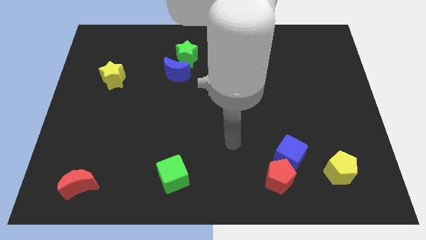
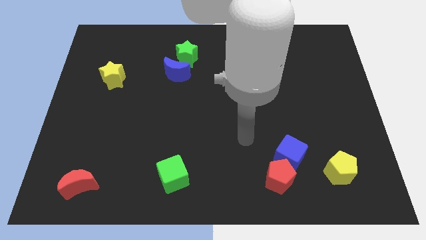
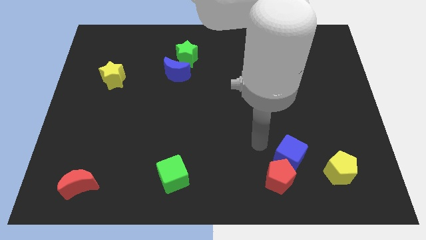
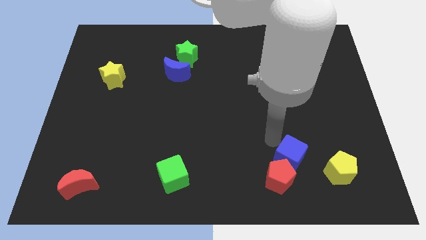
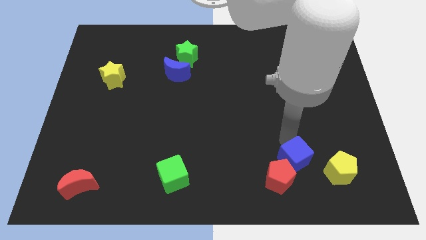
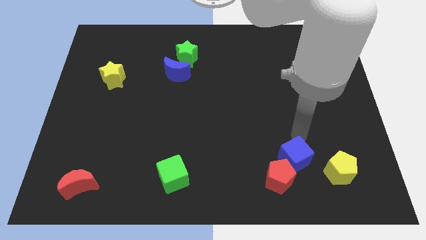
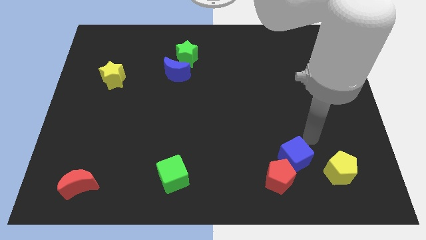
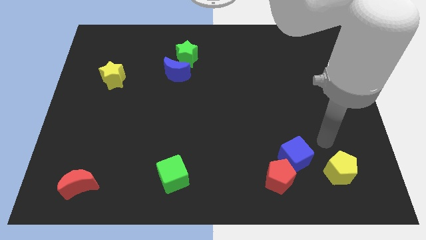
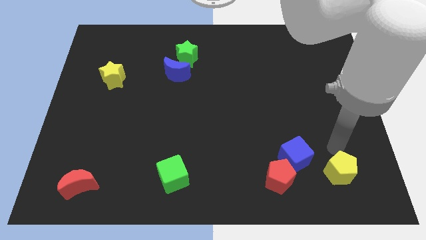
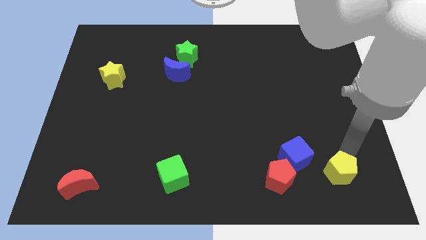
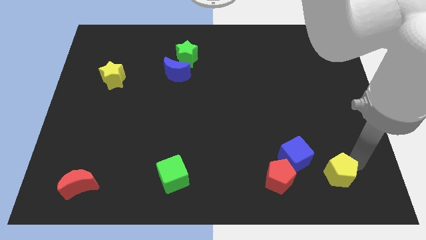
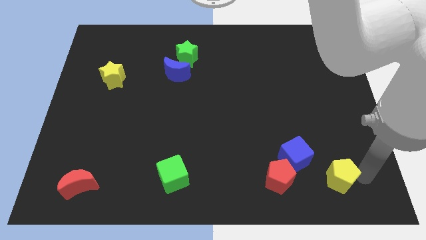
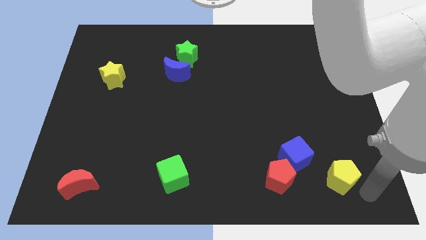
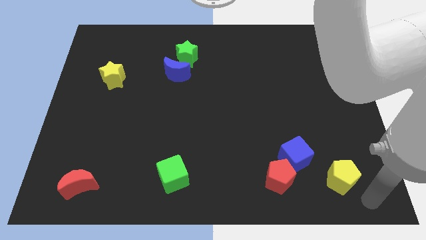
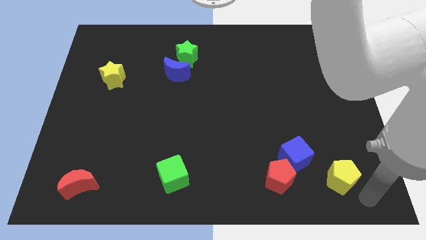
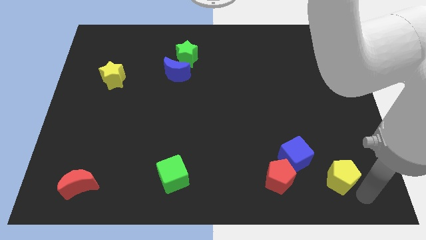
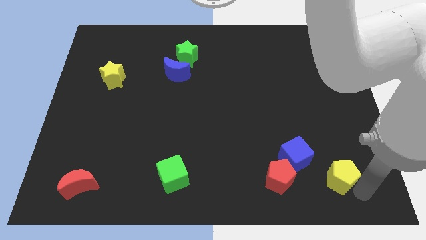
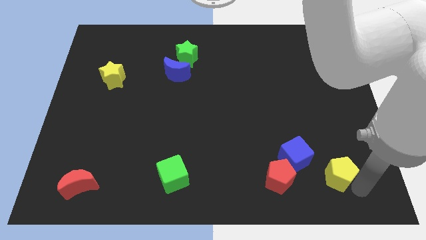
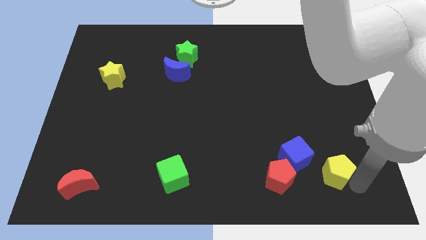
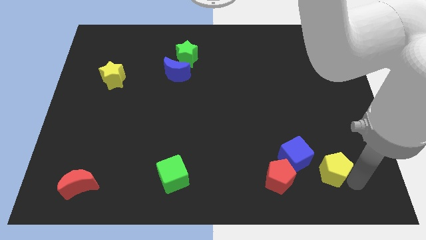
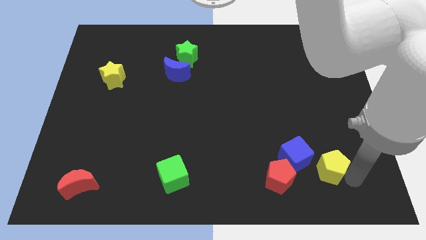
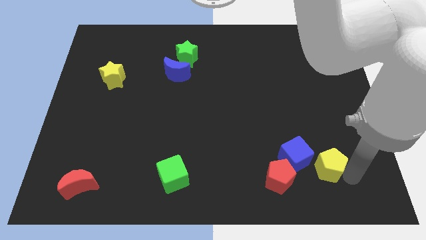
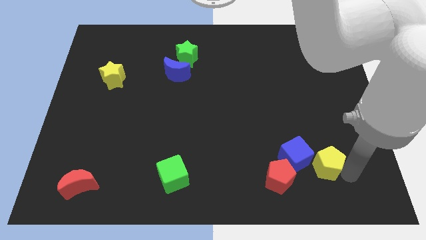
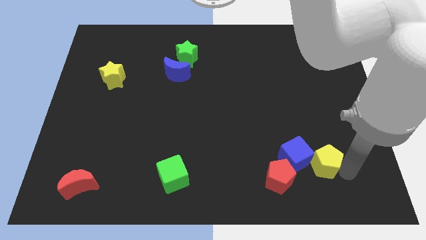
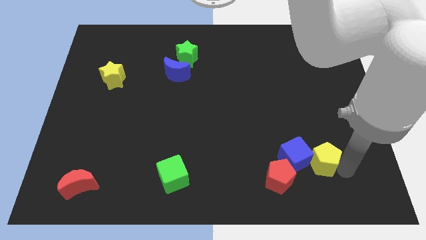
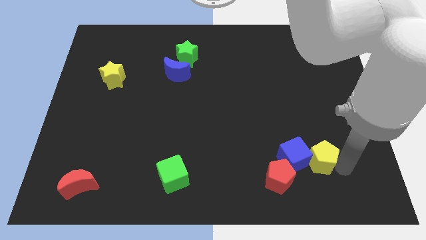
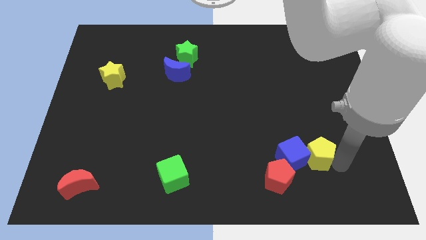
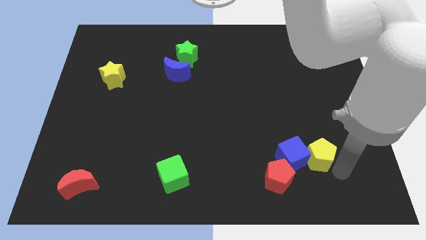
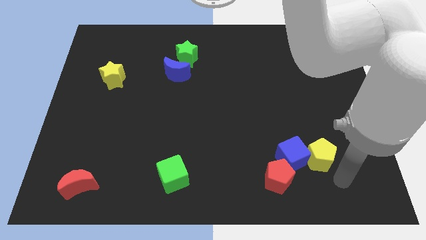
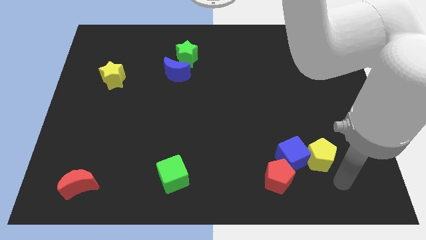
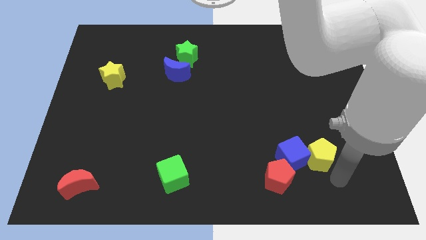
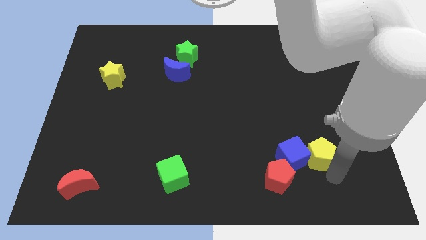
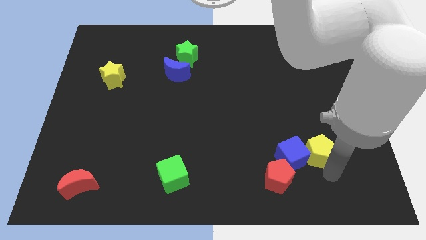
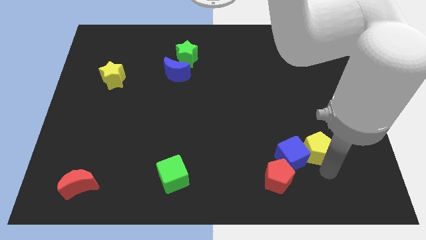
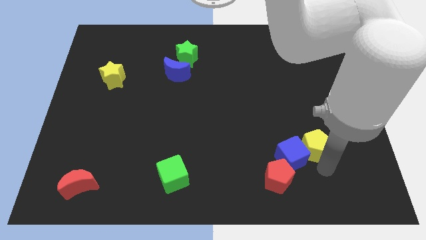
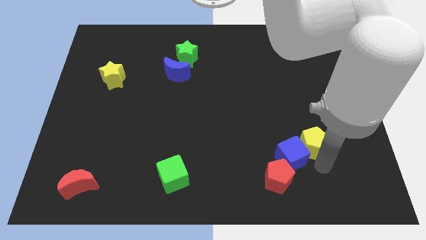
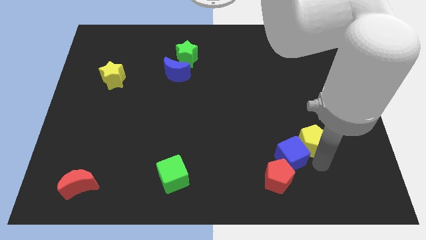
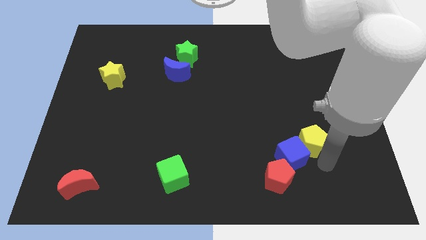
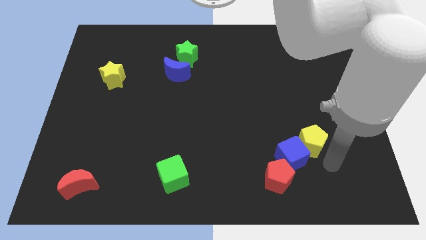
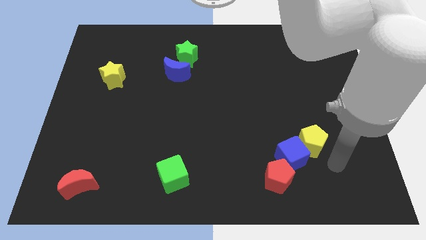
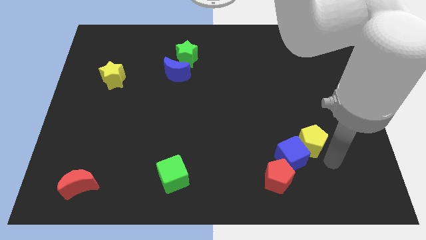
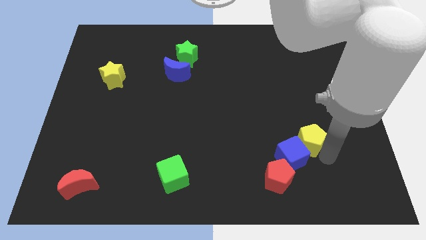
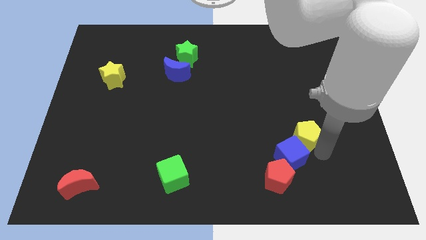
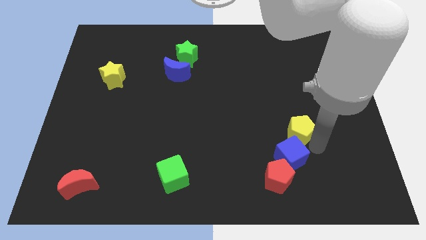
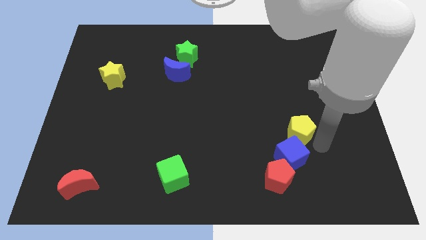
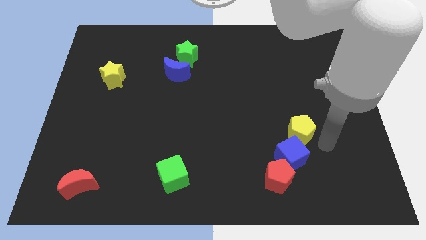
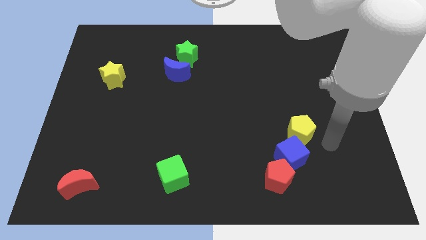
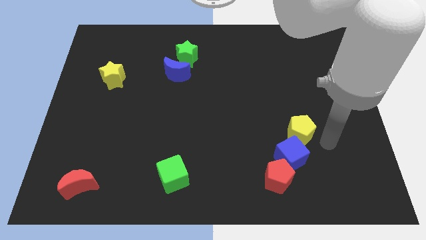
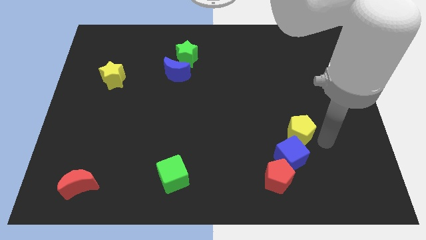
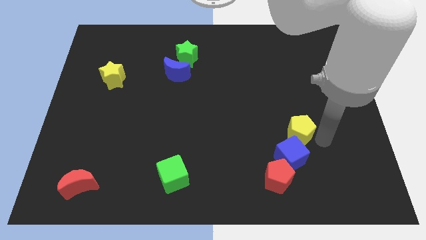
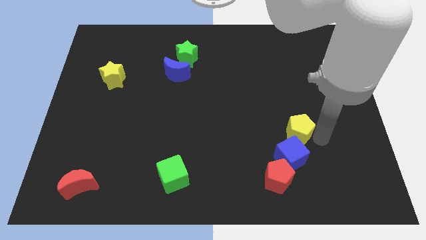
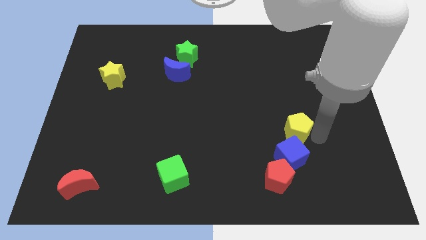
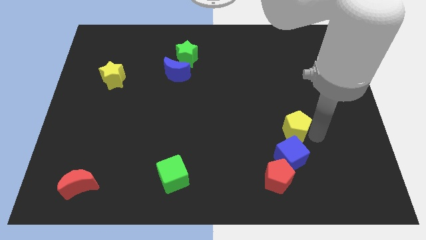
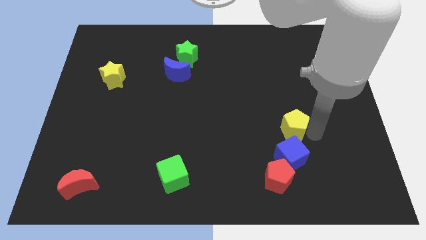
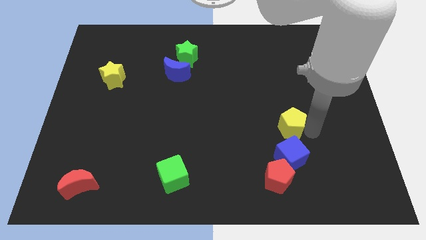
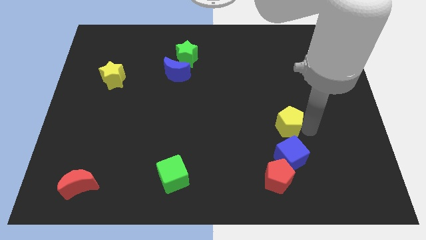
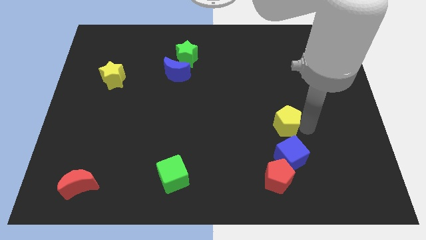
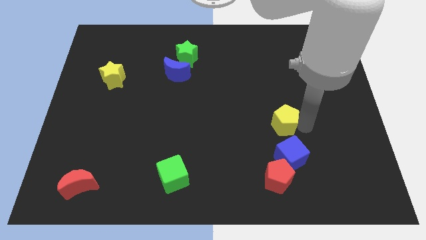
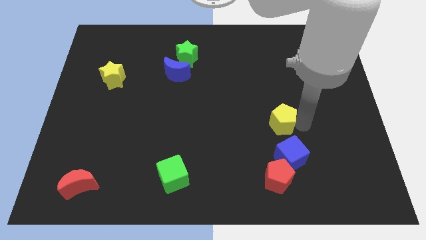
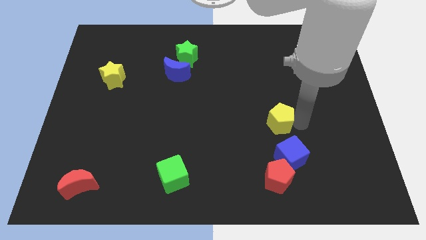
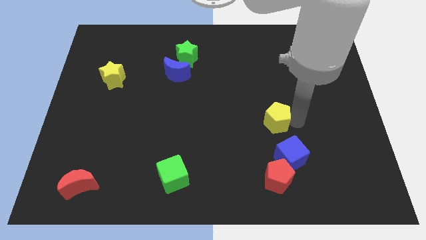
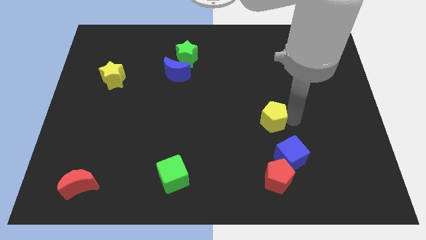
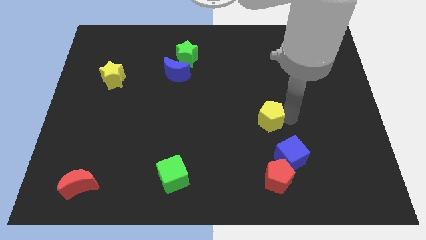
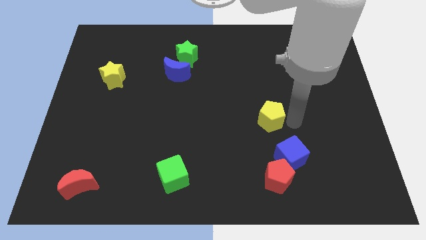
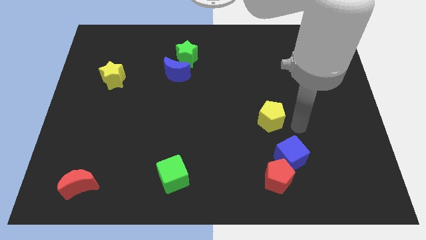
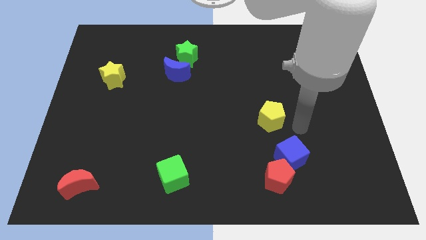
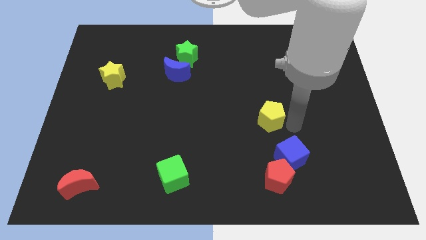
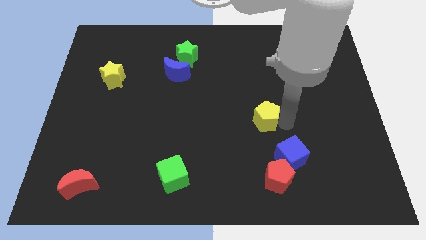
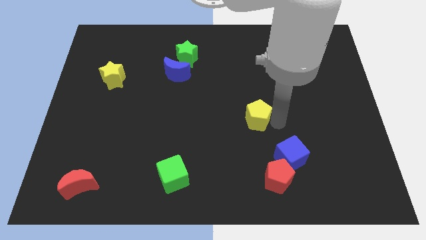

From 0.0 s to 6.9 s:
push the yellow pentagon to the center

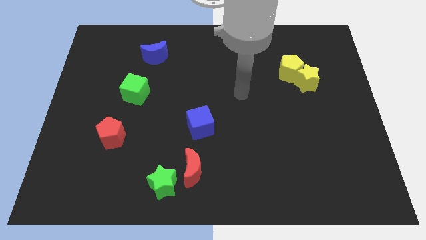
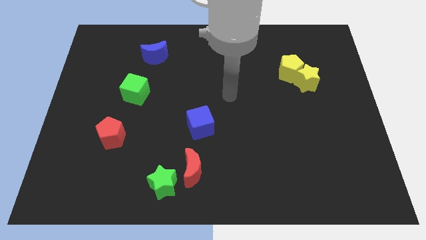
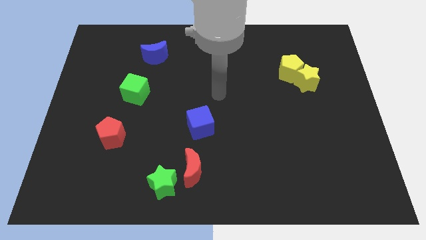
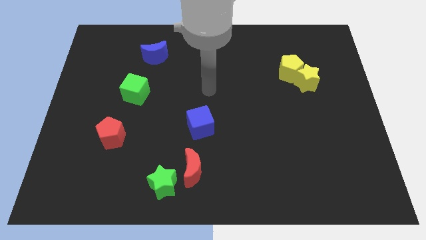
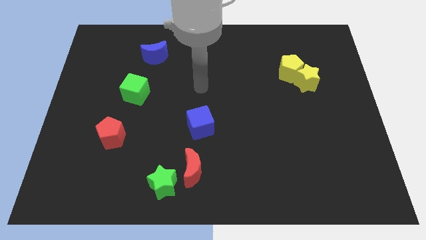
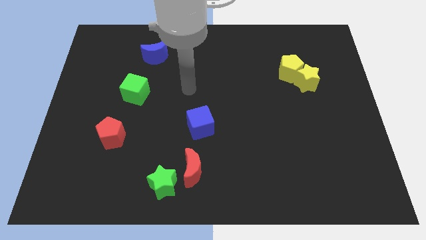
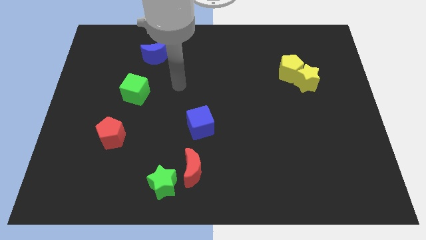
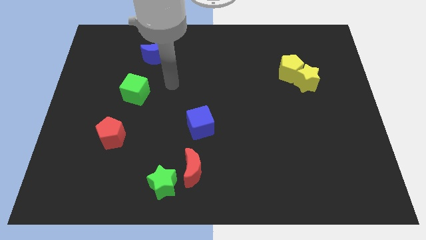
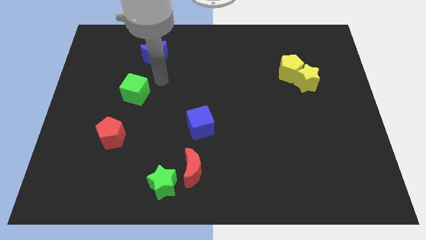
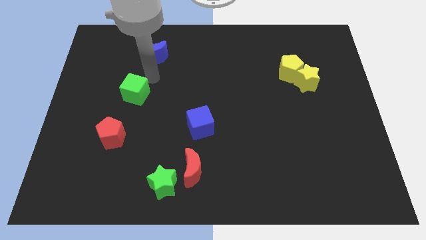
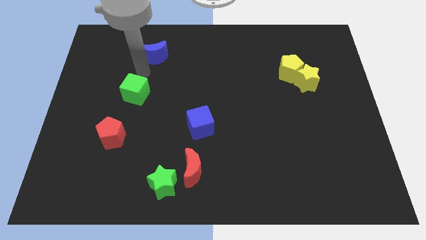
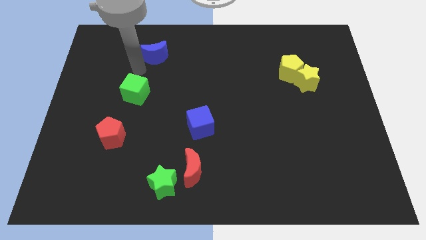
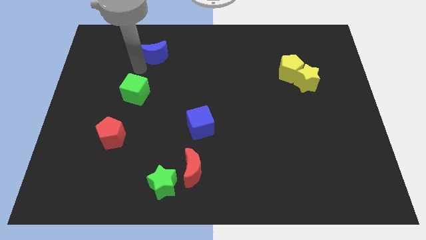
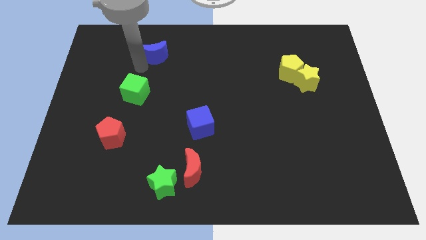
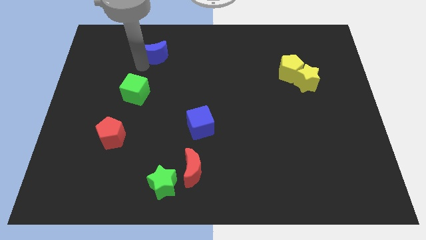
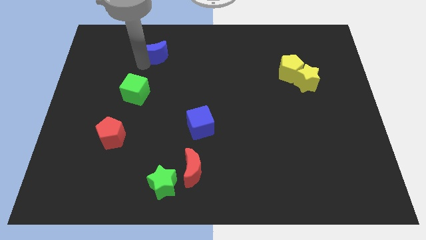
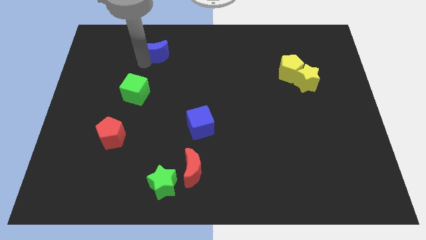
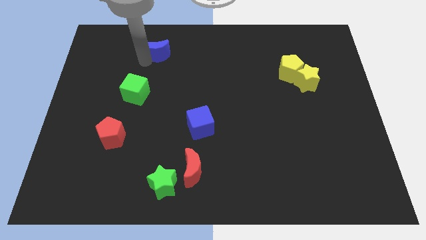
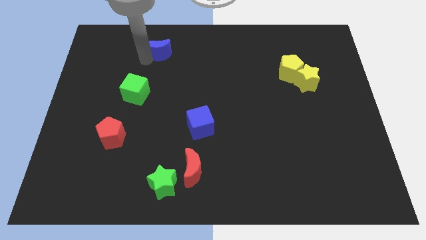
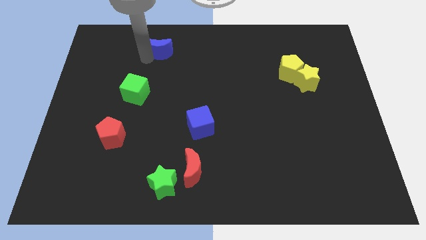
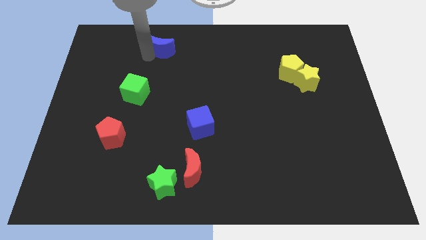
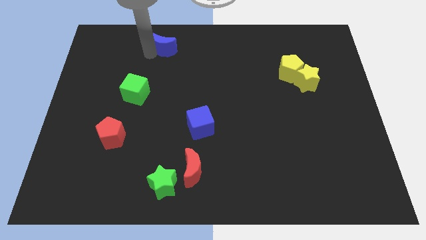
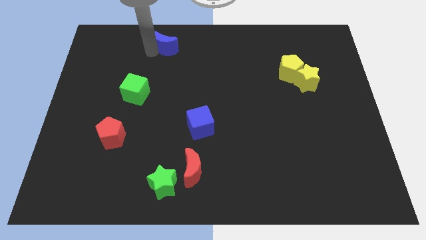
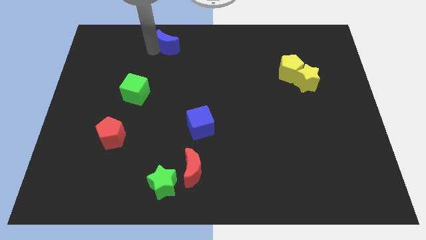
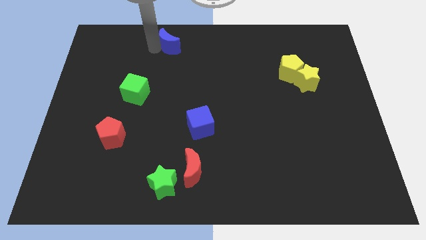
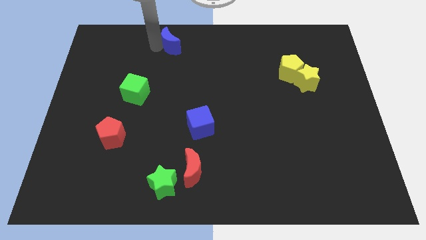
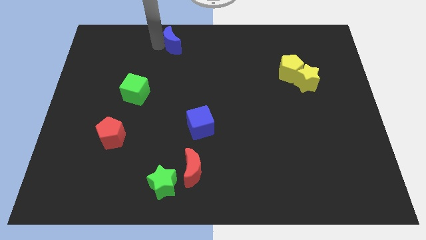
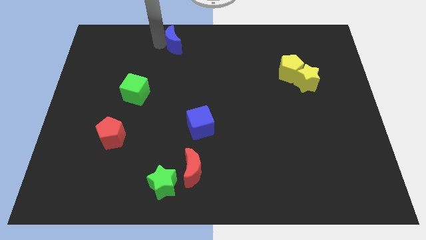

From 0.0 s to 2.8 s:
move the blue moon to the towards your base
